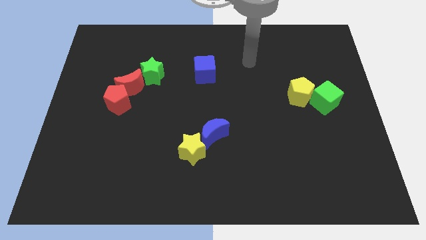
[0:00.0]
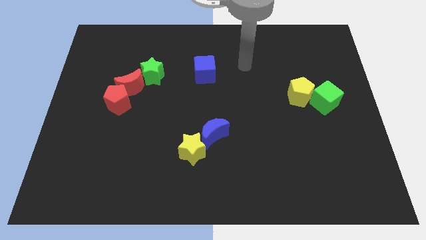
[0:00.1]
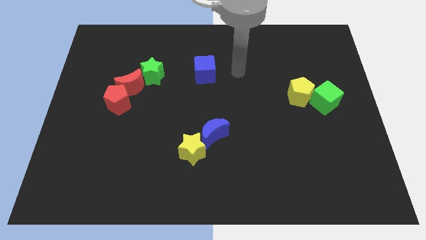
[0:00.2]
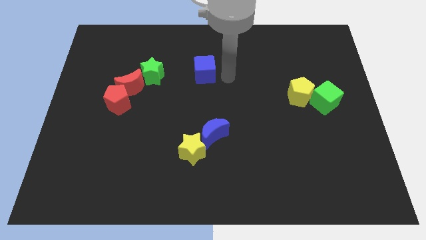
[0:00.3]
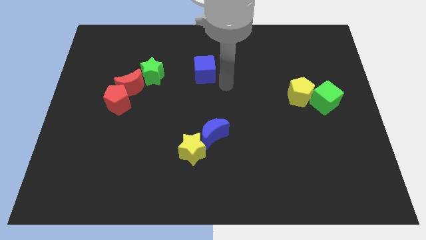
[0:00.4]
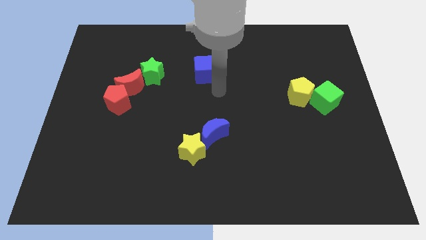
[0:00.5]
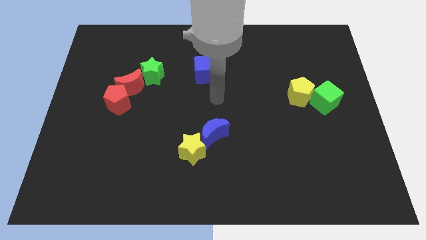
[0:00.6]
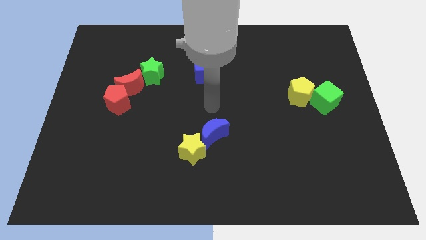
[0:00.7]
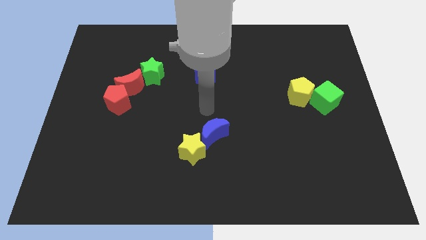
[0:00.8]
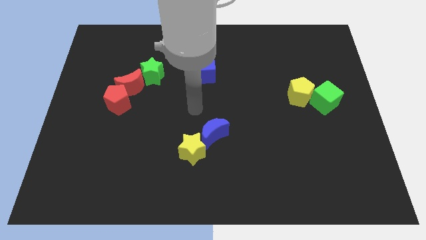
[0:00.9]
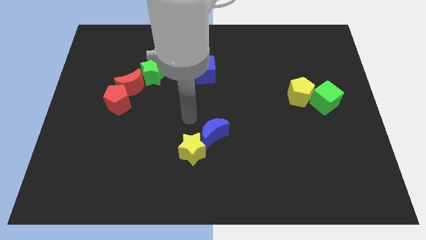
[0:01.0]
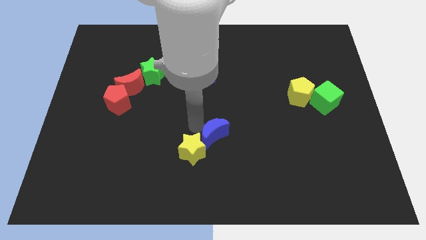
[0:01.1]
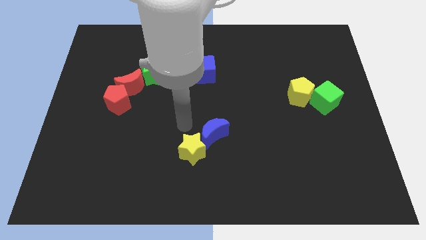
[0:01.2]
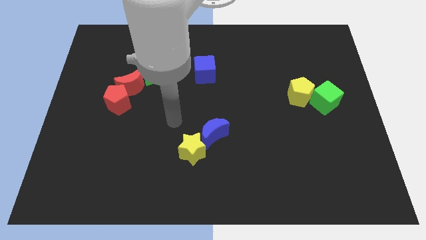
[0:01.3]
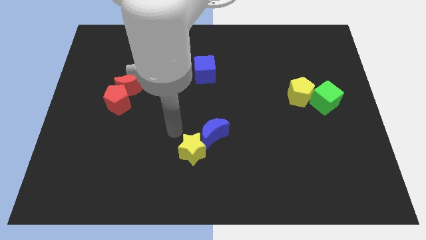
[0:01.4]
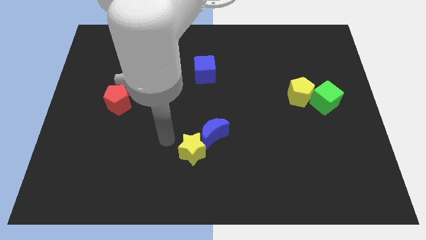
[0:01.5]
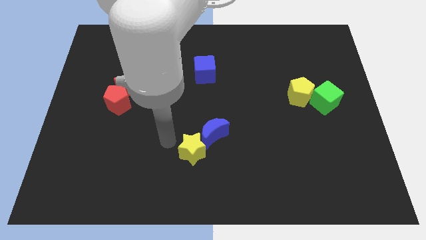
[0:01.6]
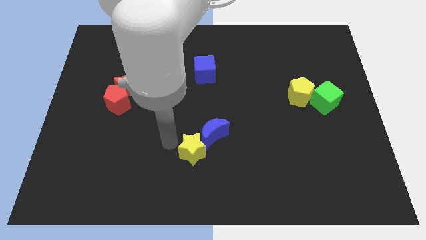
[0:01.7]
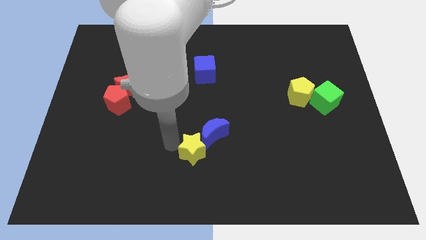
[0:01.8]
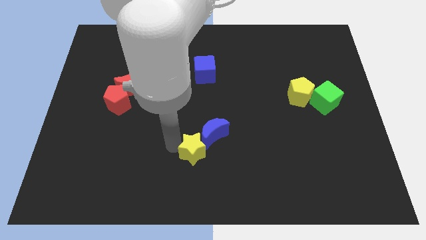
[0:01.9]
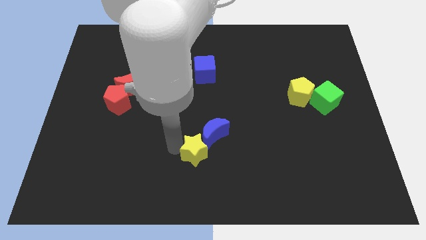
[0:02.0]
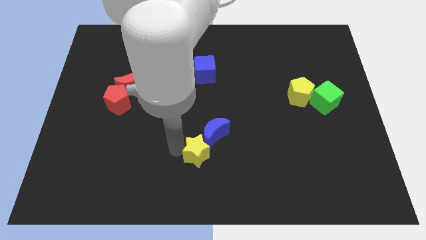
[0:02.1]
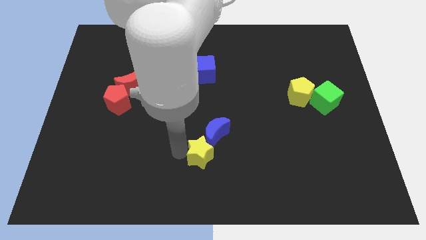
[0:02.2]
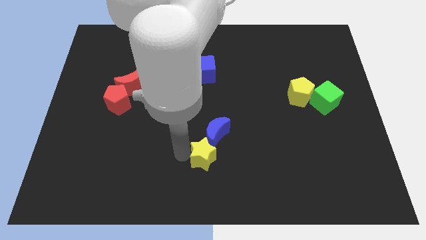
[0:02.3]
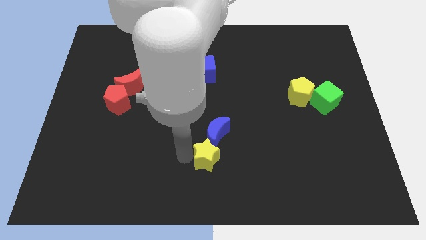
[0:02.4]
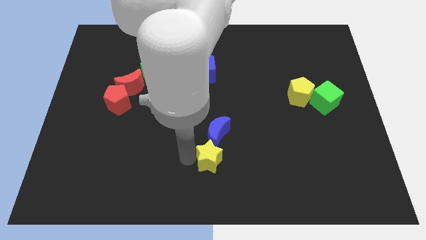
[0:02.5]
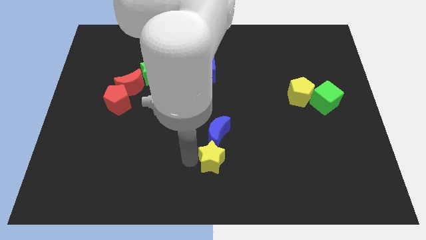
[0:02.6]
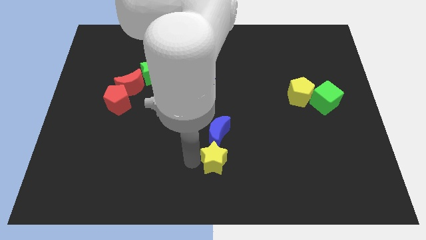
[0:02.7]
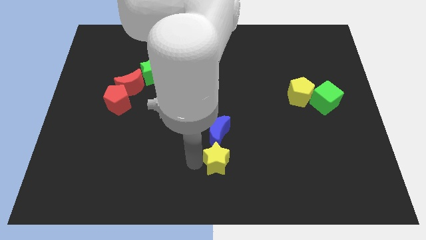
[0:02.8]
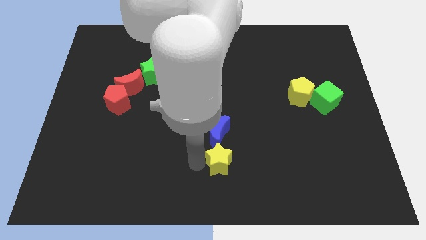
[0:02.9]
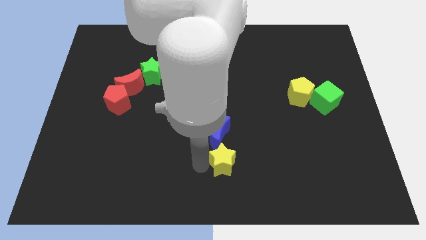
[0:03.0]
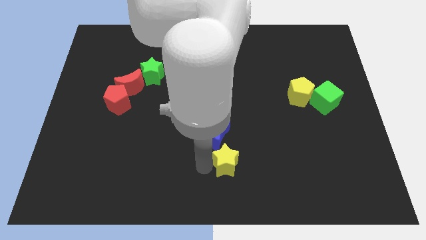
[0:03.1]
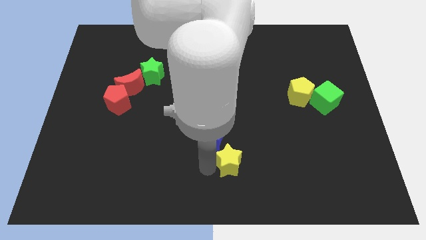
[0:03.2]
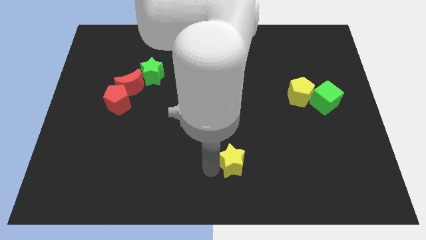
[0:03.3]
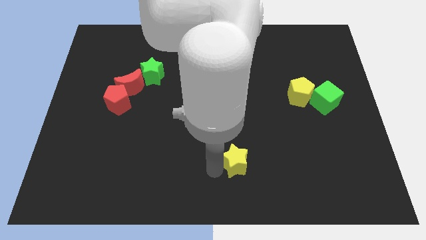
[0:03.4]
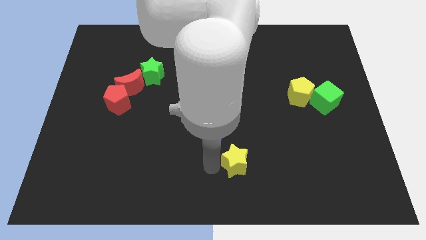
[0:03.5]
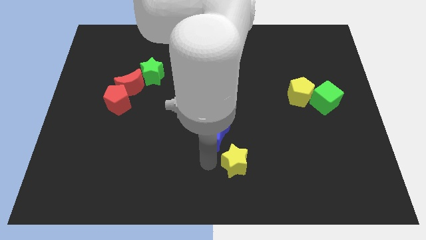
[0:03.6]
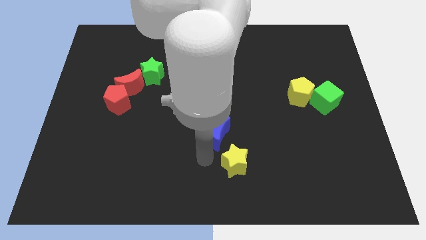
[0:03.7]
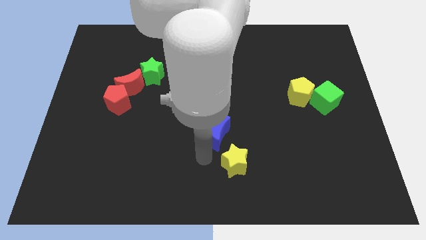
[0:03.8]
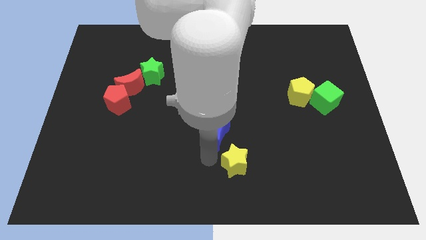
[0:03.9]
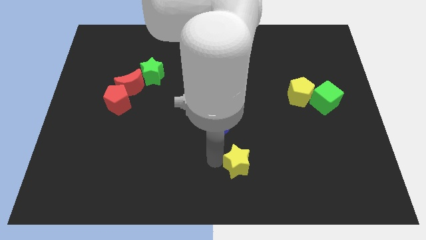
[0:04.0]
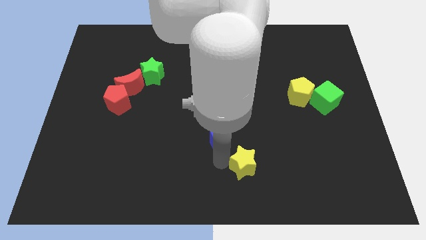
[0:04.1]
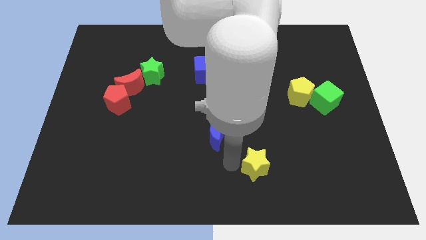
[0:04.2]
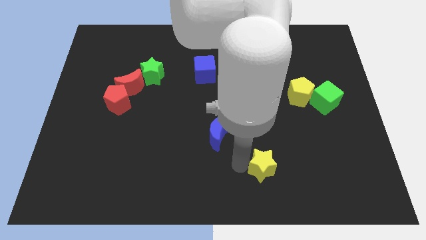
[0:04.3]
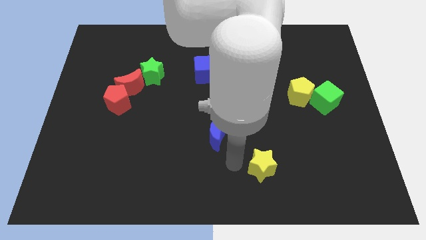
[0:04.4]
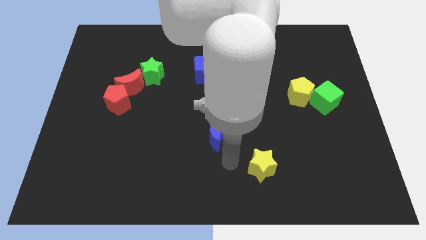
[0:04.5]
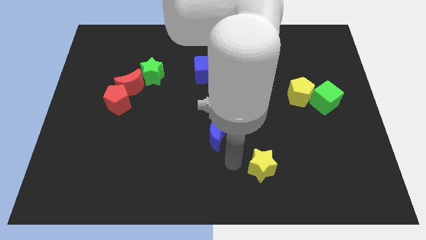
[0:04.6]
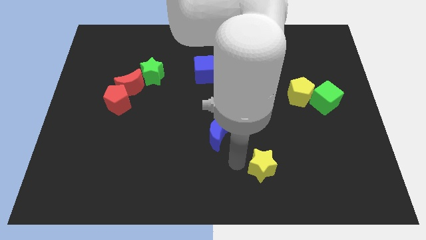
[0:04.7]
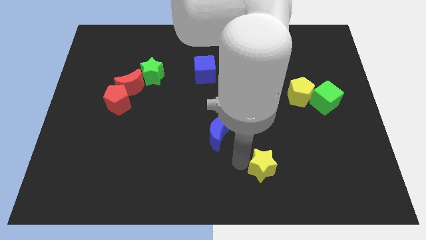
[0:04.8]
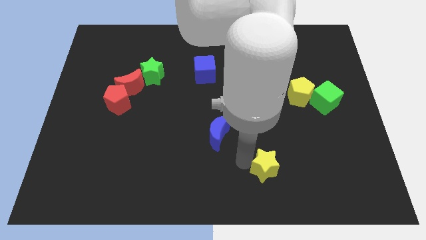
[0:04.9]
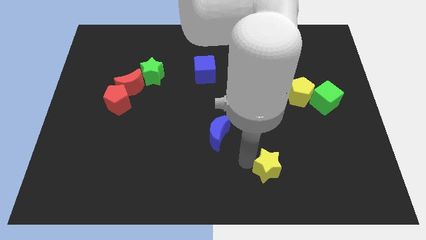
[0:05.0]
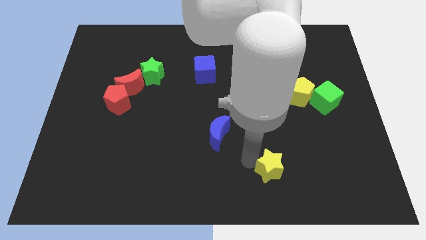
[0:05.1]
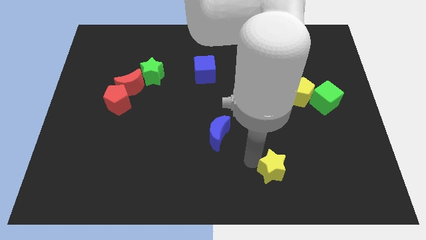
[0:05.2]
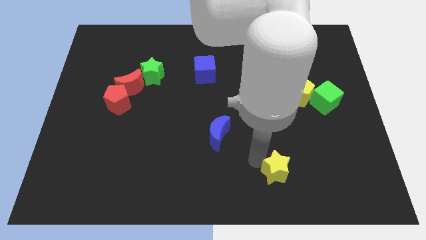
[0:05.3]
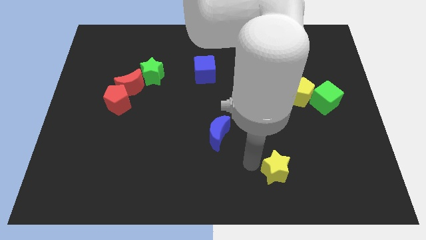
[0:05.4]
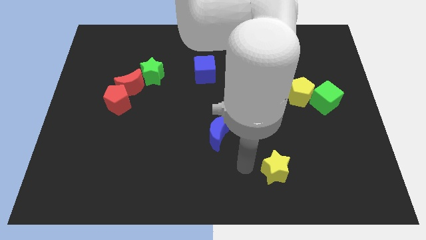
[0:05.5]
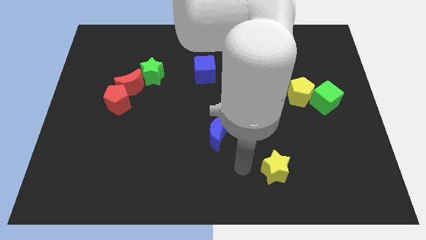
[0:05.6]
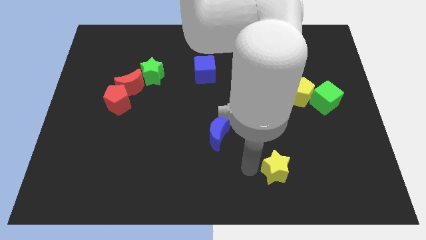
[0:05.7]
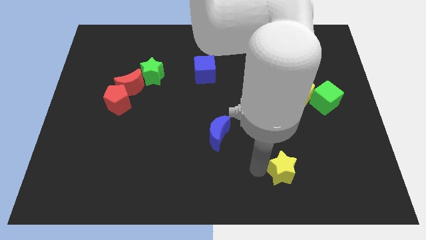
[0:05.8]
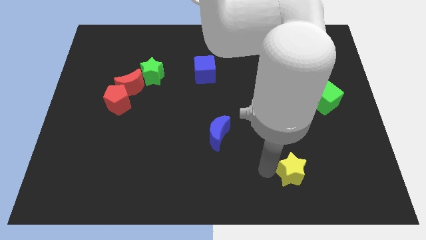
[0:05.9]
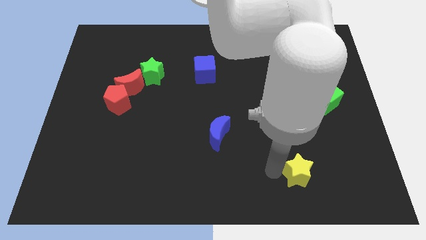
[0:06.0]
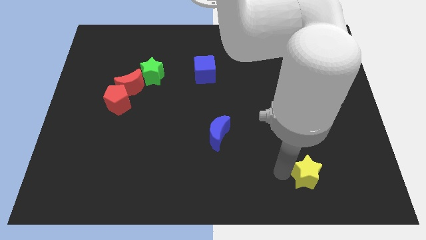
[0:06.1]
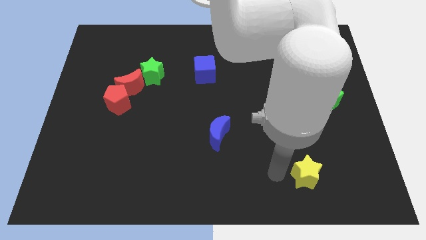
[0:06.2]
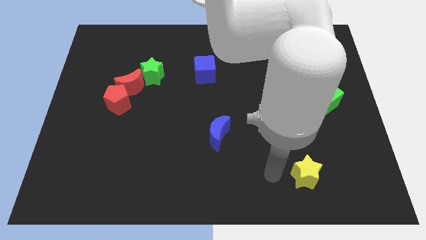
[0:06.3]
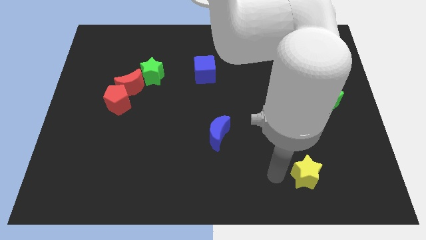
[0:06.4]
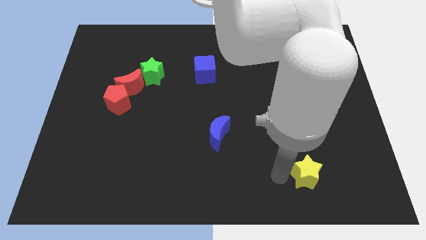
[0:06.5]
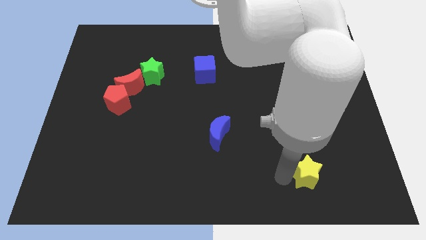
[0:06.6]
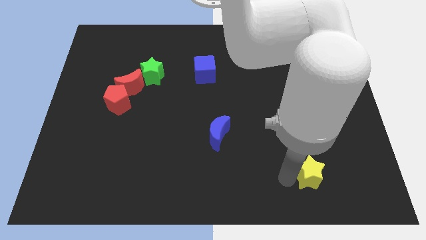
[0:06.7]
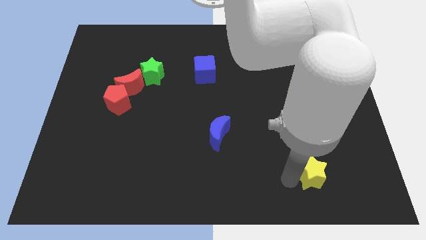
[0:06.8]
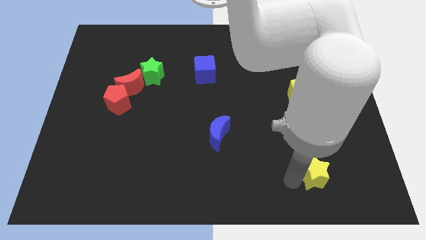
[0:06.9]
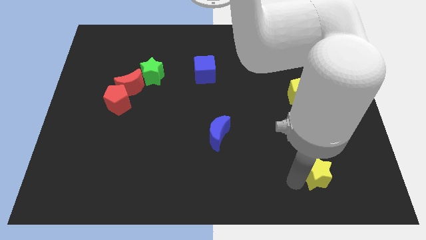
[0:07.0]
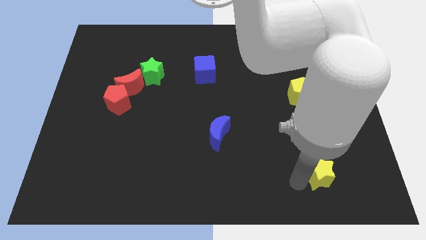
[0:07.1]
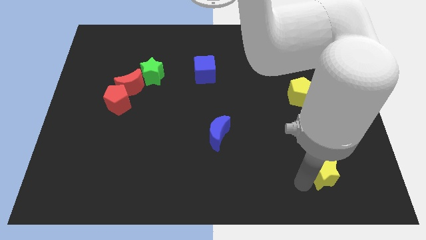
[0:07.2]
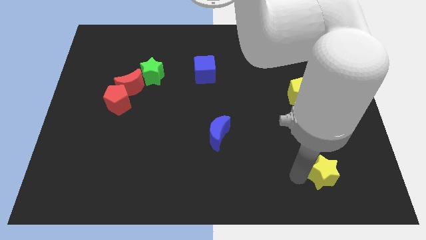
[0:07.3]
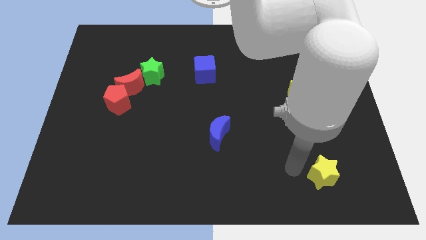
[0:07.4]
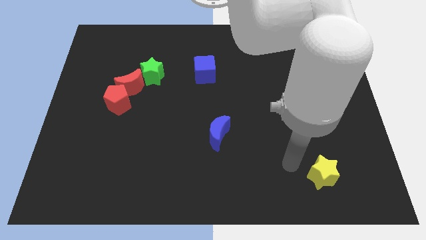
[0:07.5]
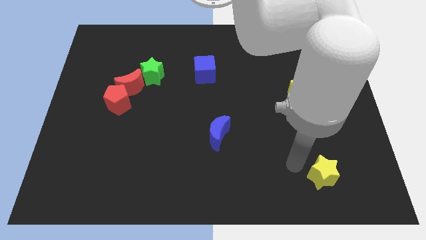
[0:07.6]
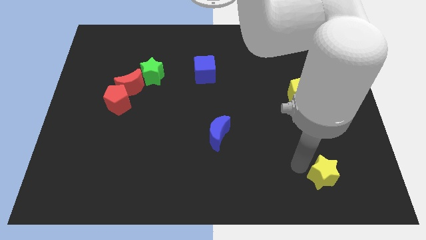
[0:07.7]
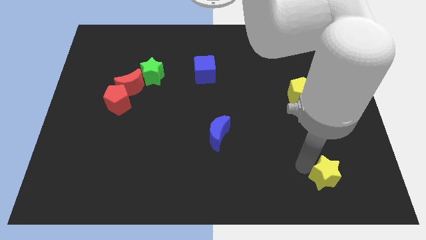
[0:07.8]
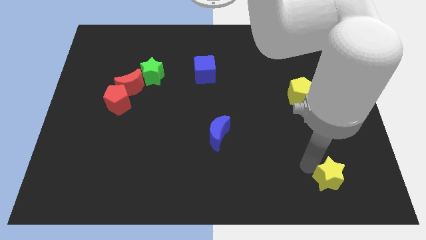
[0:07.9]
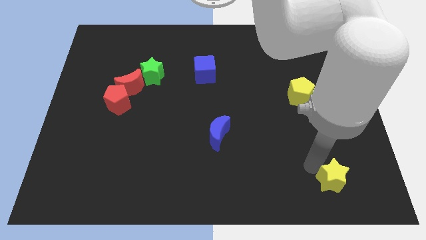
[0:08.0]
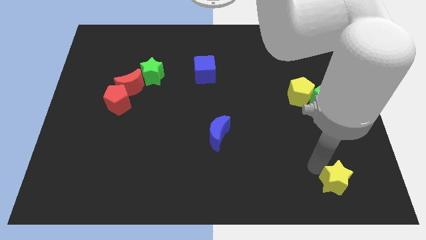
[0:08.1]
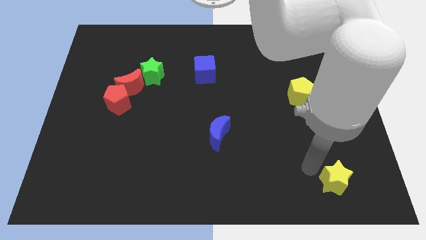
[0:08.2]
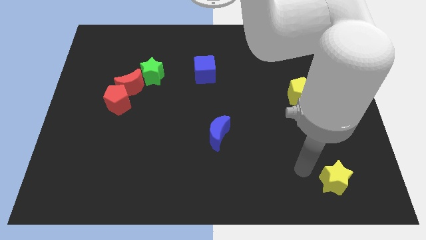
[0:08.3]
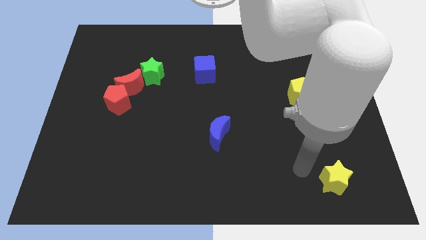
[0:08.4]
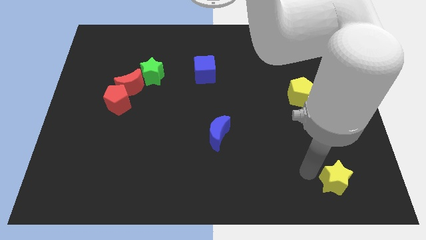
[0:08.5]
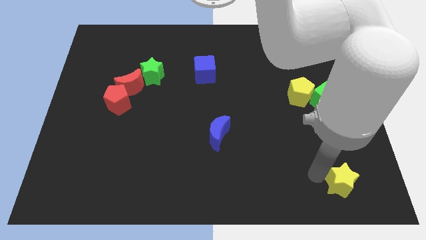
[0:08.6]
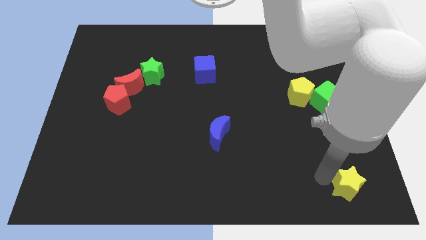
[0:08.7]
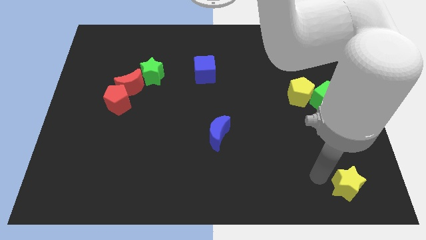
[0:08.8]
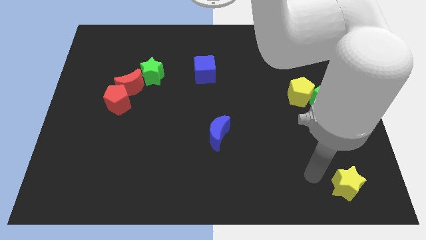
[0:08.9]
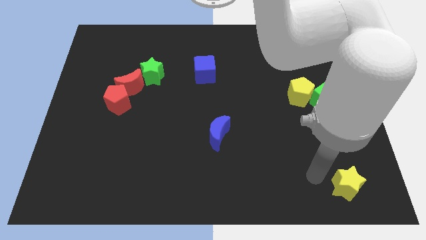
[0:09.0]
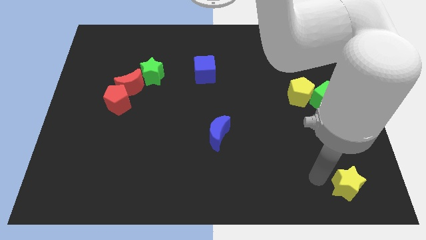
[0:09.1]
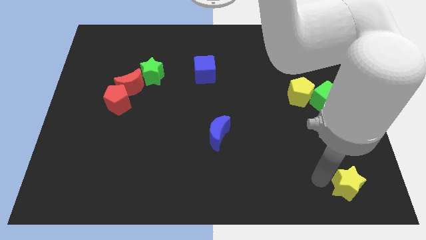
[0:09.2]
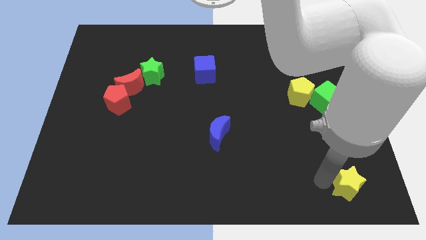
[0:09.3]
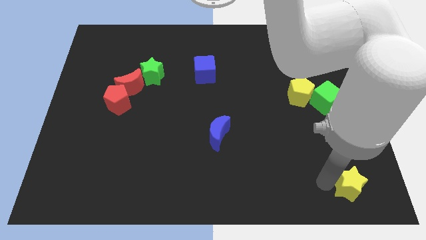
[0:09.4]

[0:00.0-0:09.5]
move the yellow star to the bottom right
